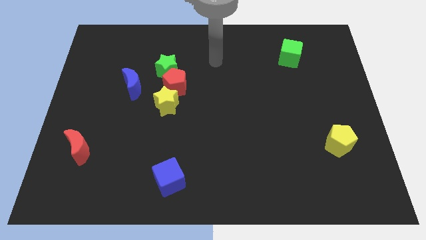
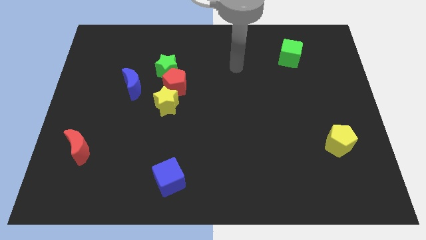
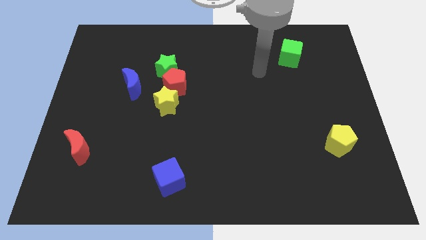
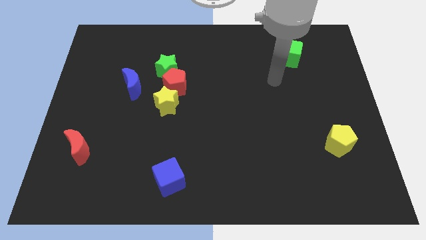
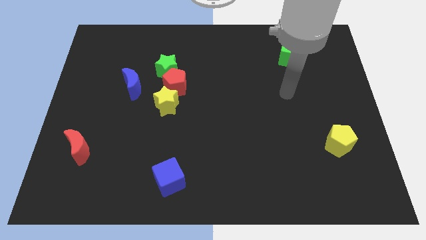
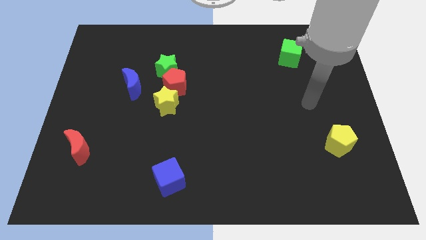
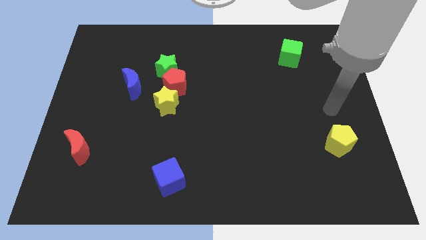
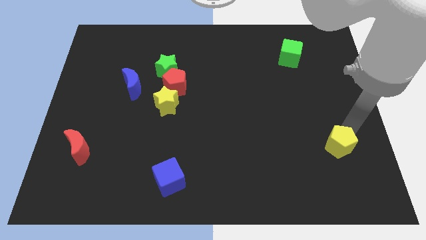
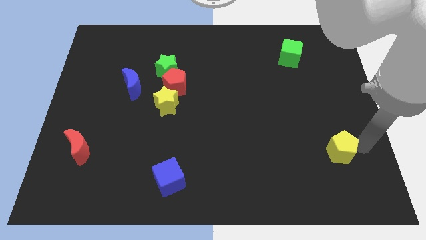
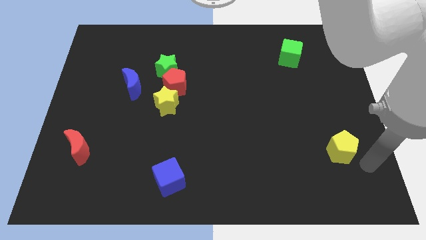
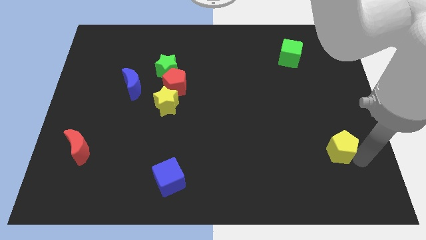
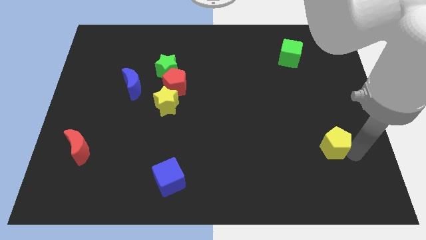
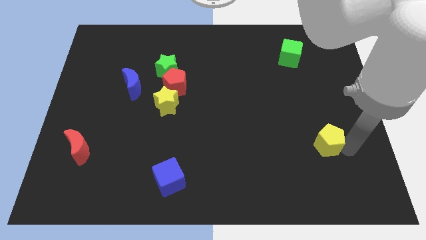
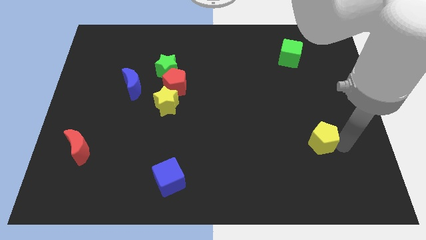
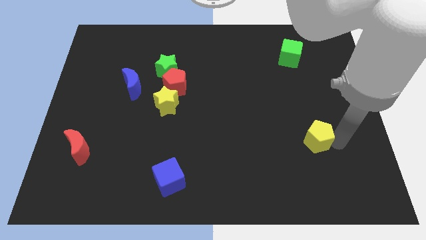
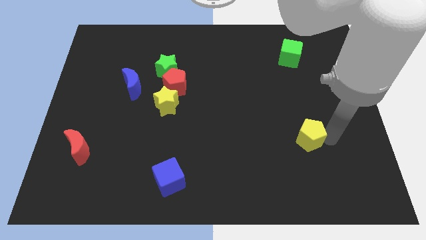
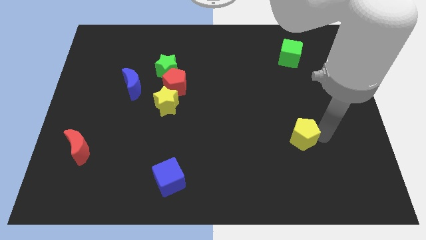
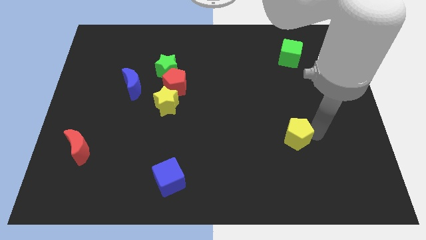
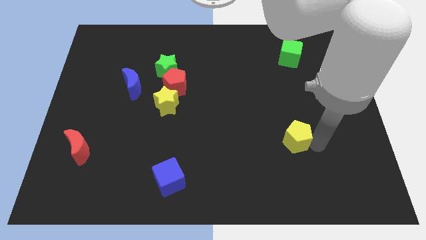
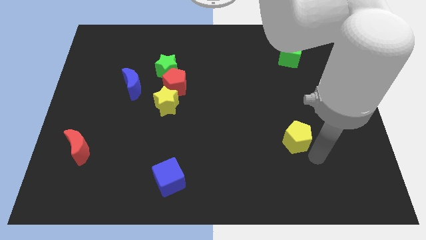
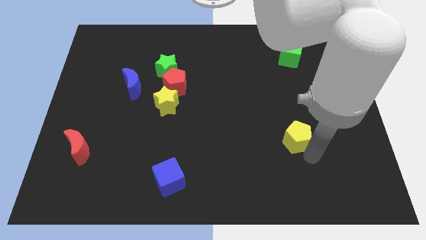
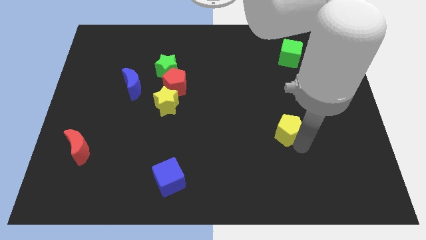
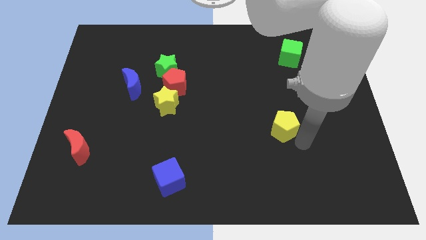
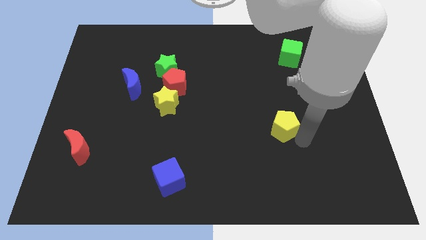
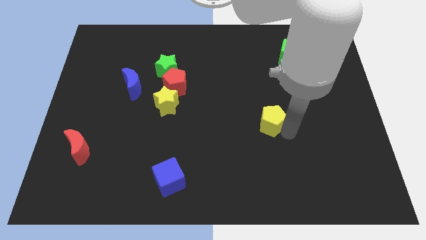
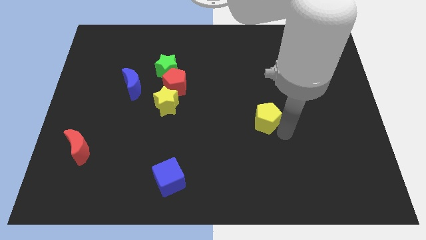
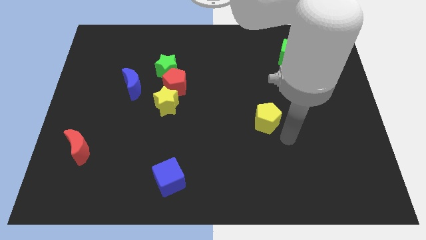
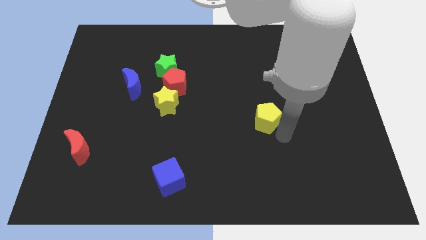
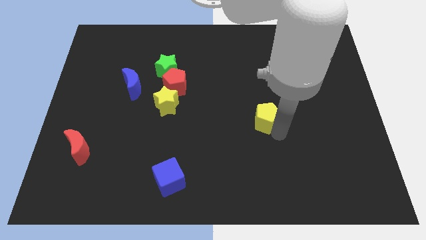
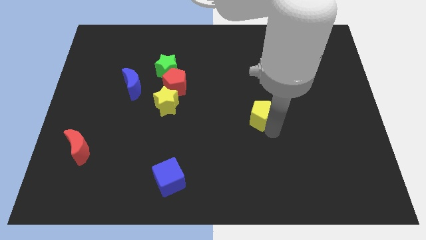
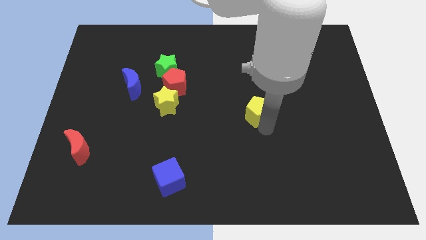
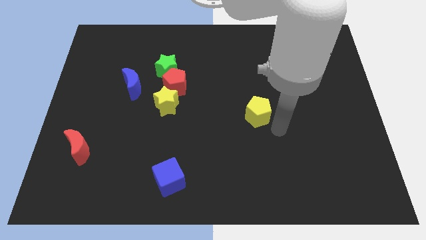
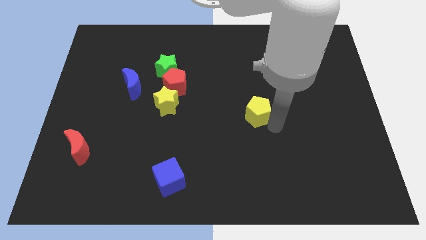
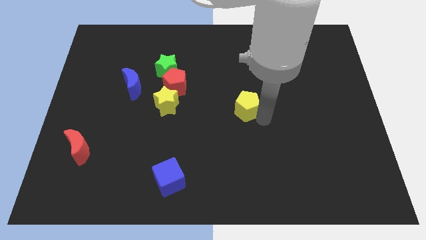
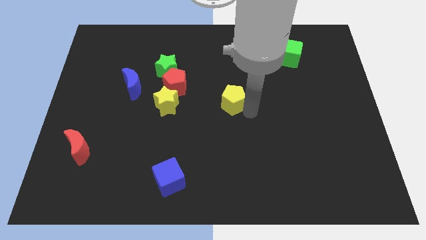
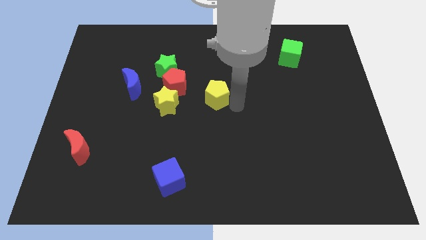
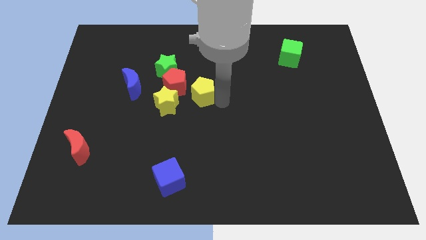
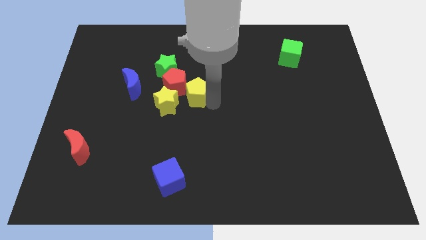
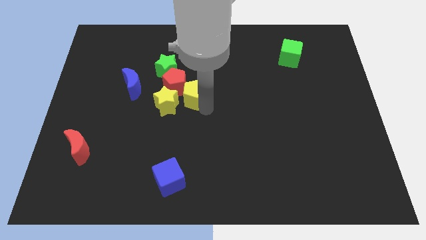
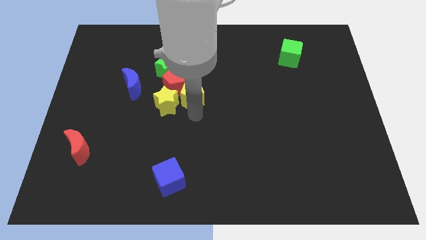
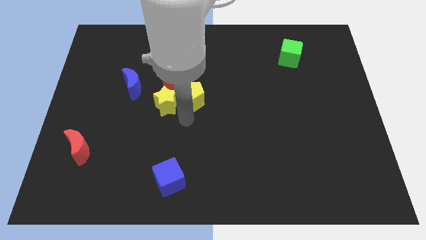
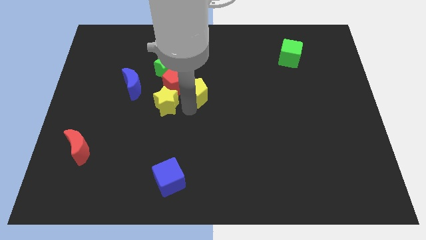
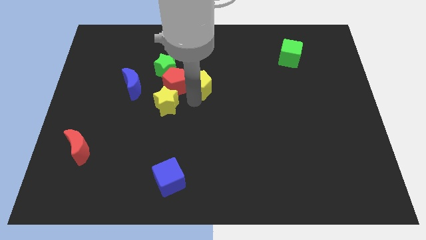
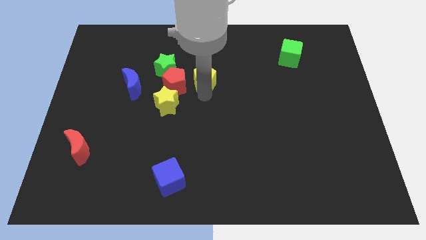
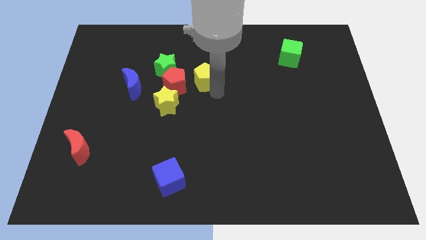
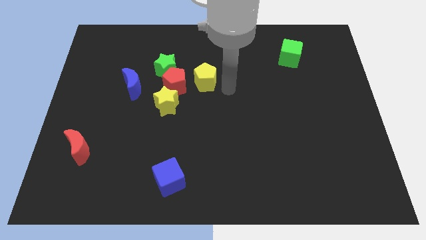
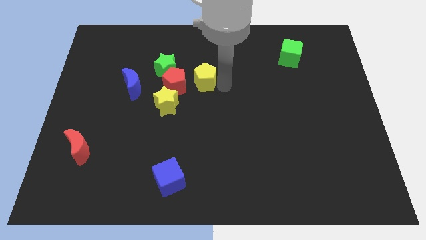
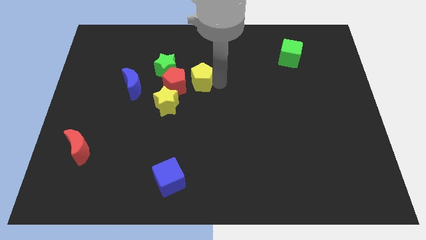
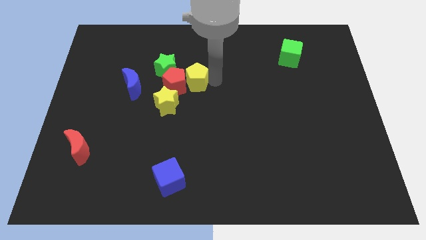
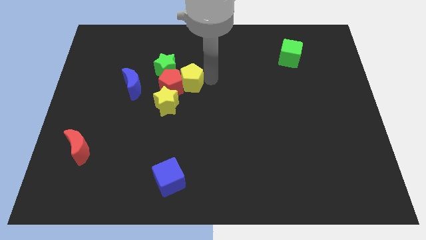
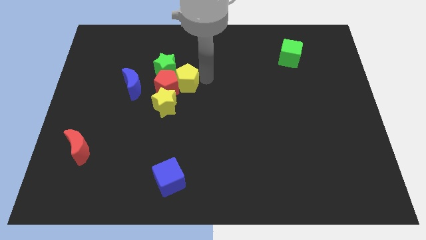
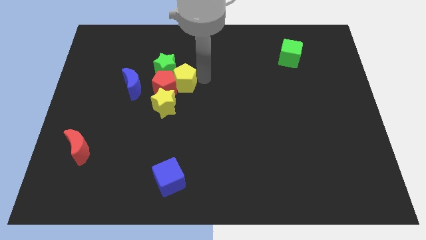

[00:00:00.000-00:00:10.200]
push the yellow pentagon towards the green star

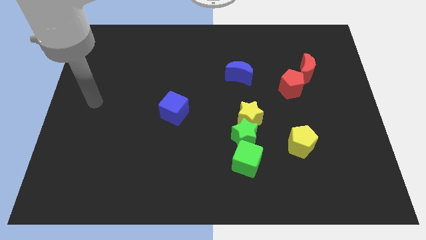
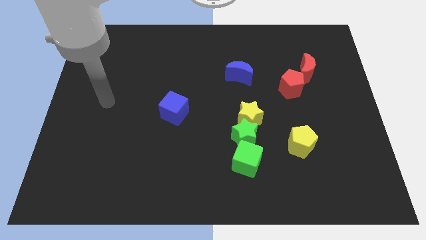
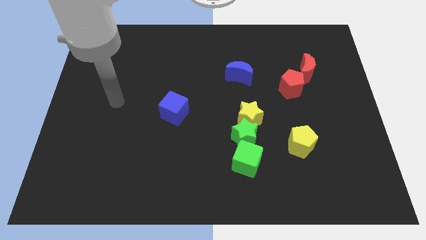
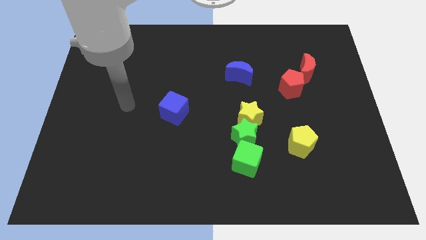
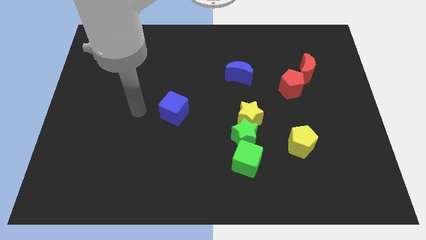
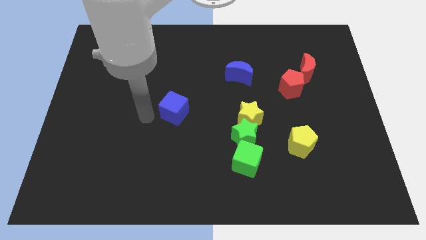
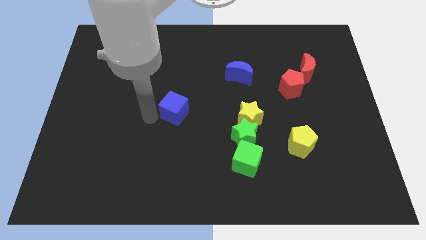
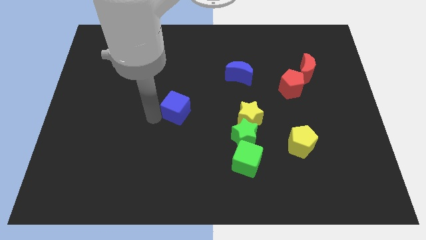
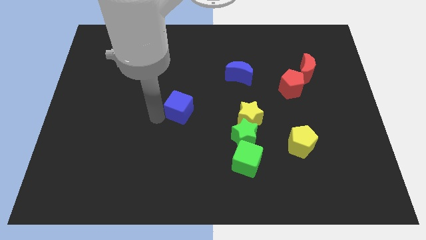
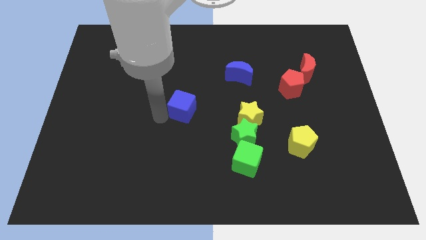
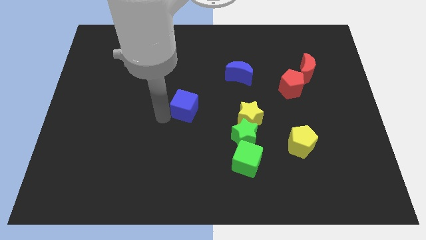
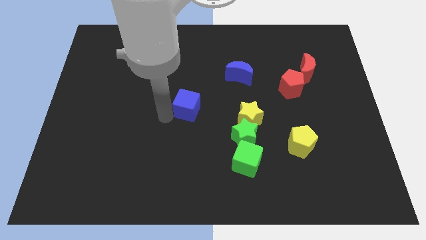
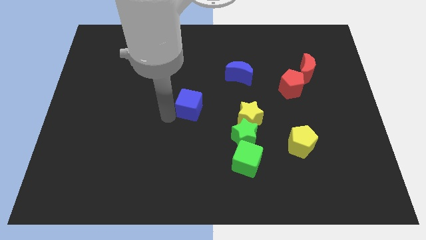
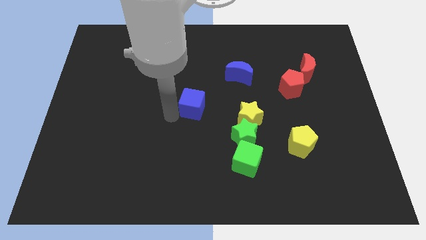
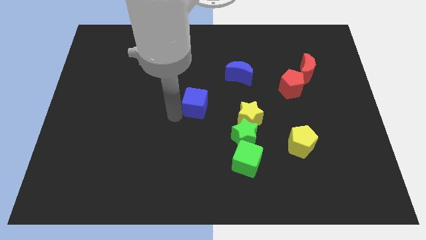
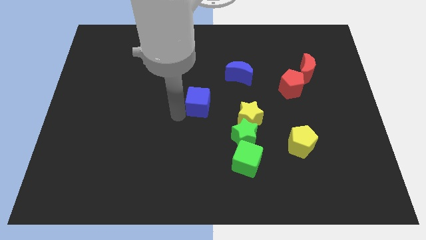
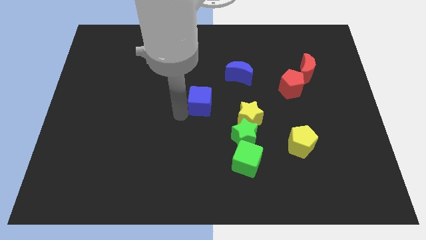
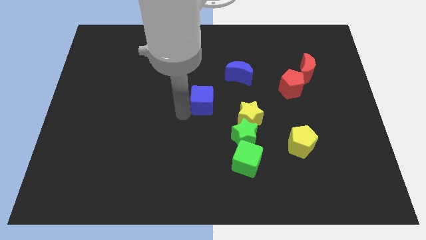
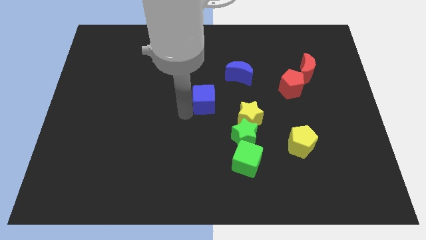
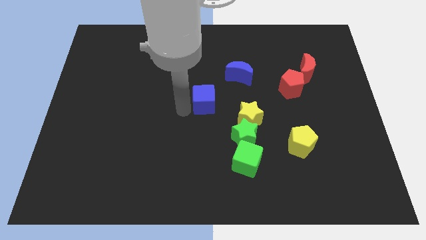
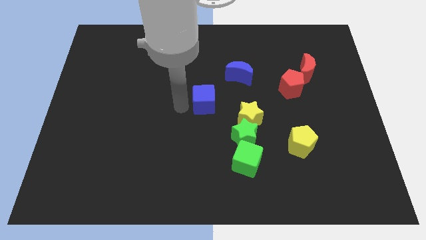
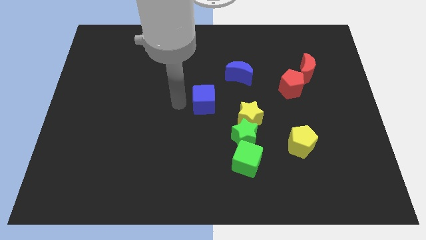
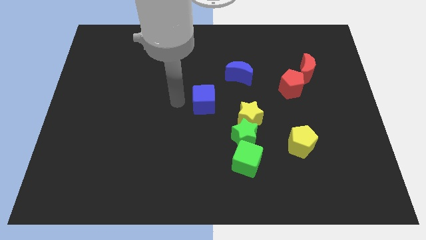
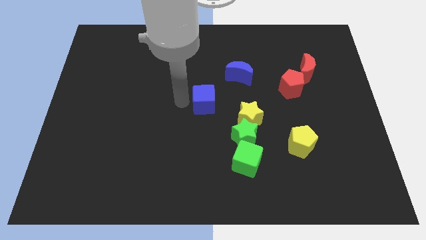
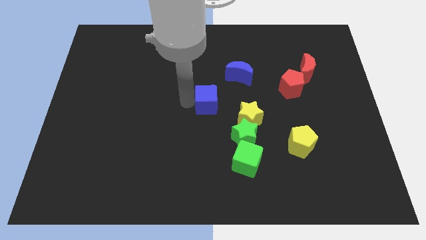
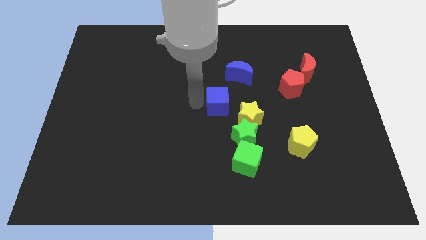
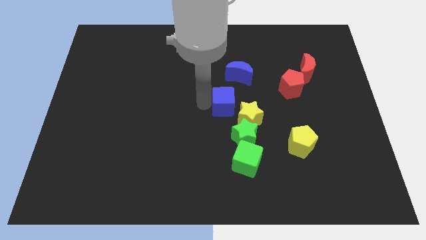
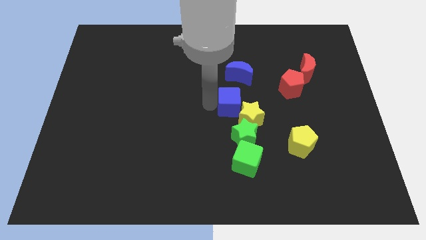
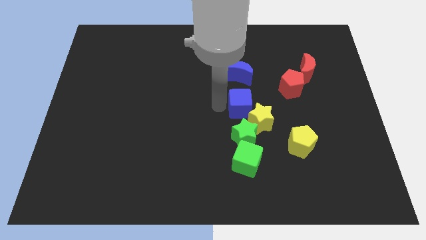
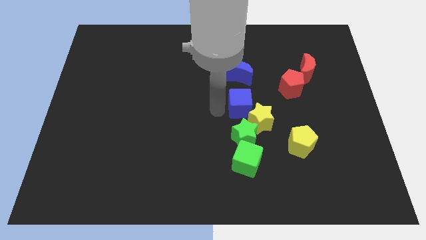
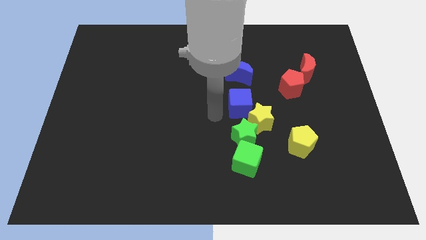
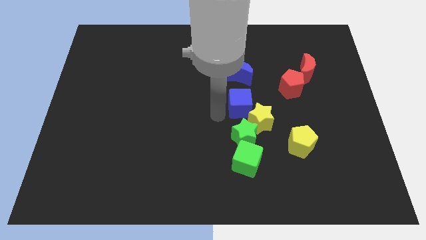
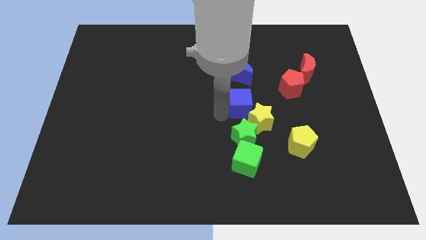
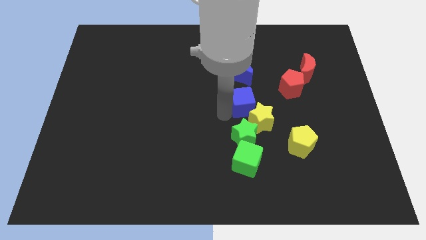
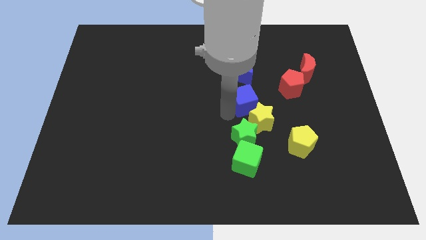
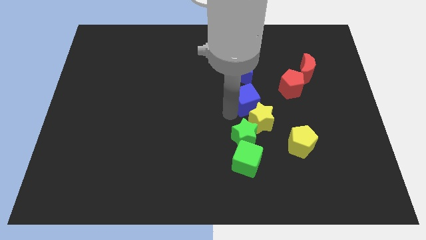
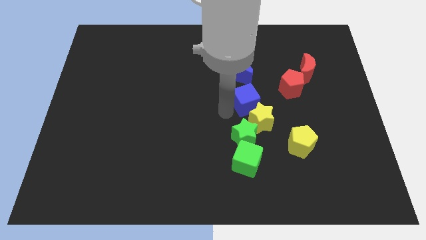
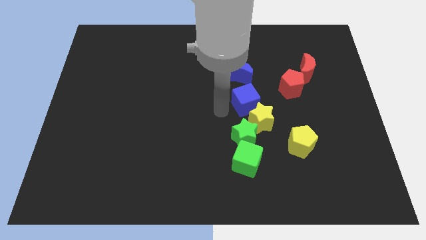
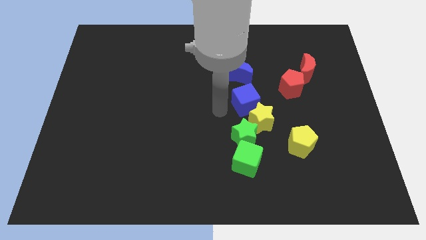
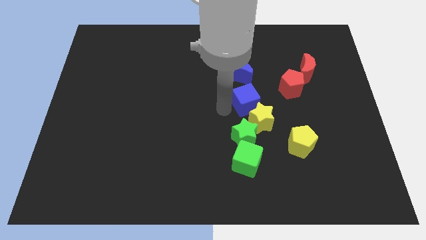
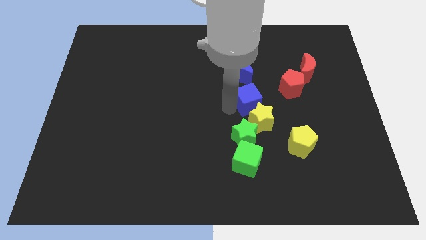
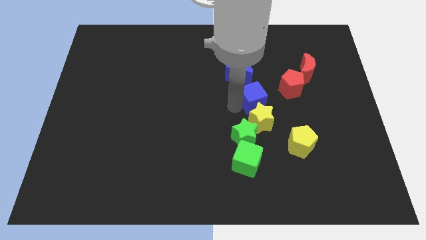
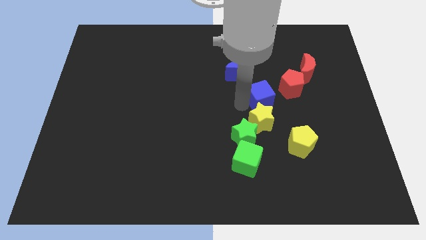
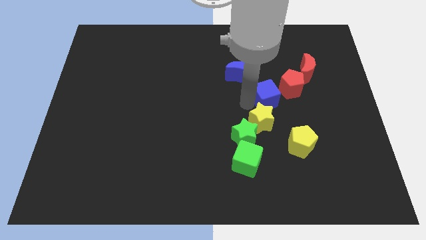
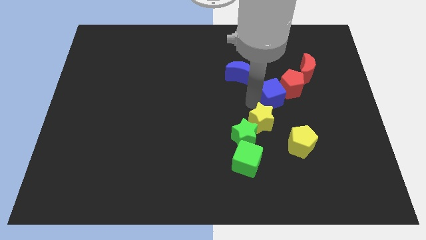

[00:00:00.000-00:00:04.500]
push the blue cube close to the red pentagon
